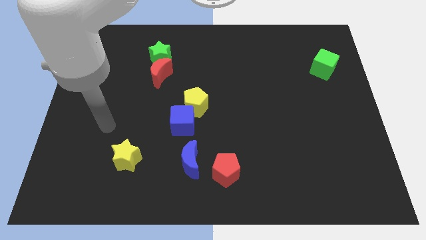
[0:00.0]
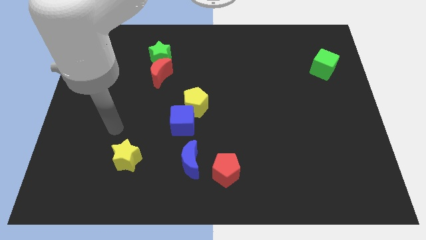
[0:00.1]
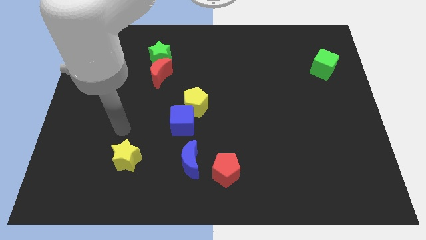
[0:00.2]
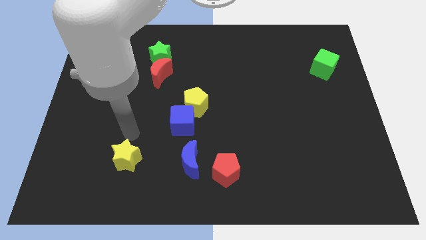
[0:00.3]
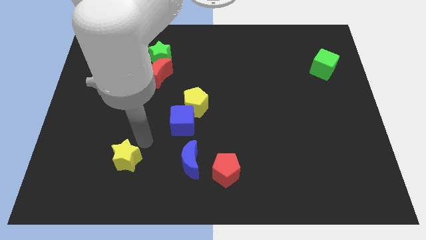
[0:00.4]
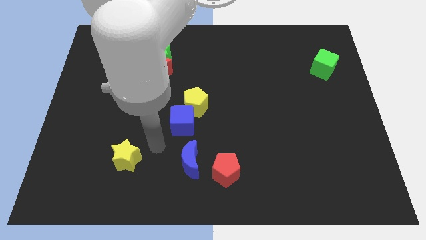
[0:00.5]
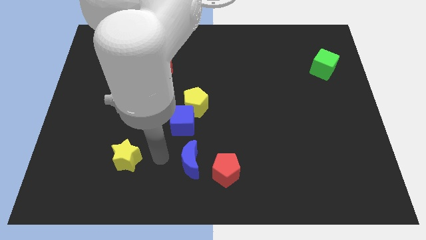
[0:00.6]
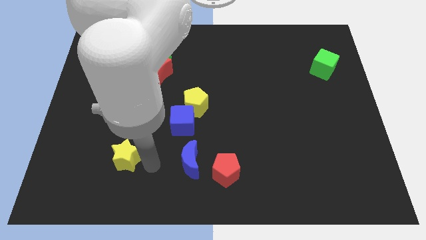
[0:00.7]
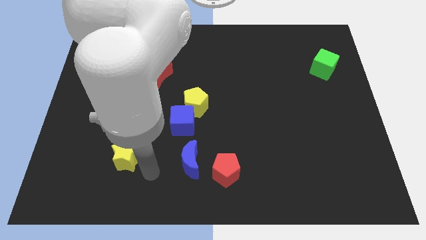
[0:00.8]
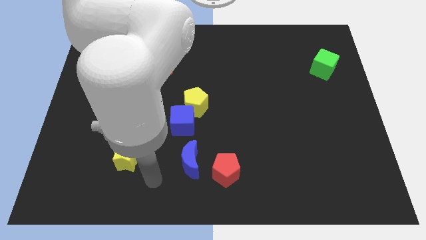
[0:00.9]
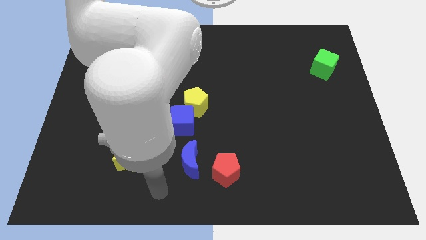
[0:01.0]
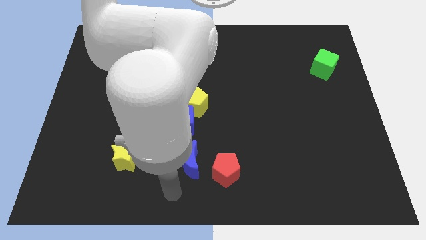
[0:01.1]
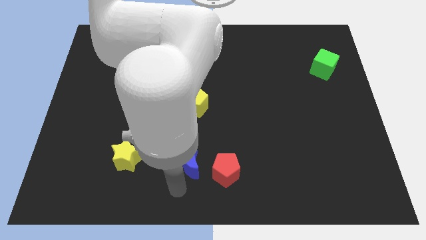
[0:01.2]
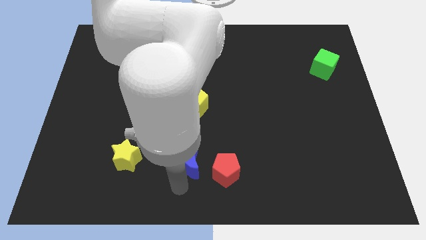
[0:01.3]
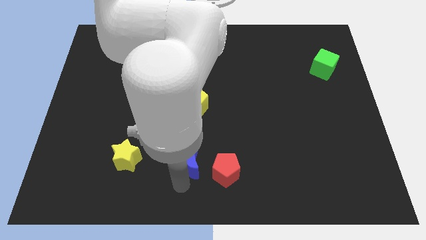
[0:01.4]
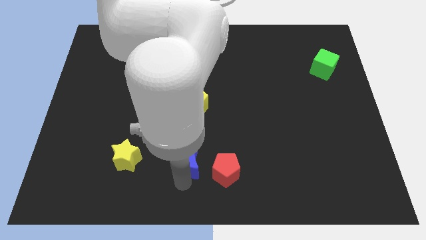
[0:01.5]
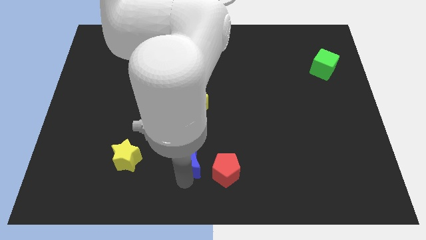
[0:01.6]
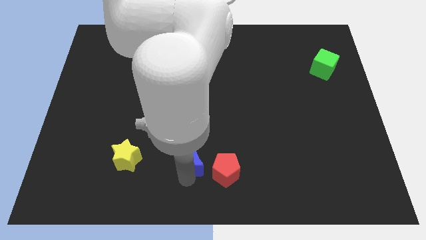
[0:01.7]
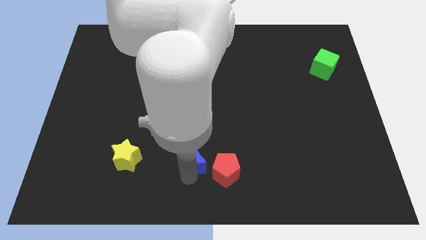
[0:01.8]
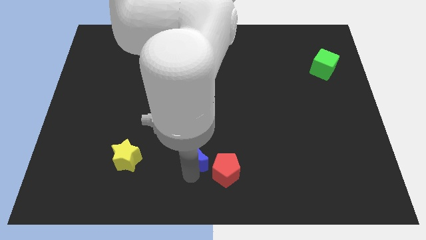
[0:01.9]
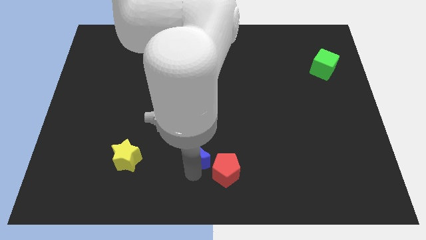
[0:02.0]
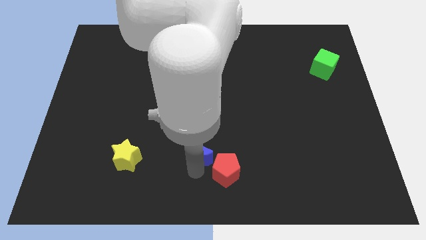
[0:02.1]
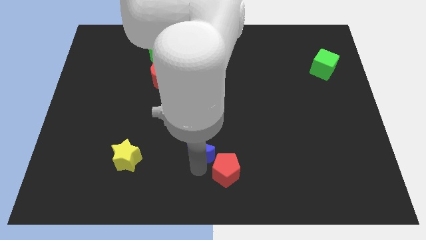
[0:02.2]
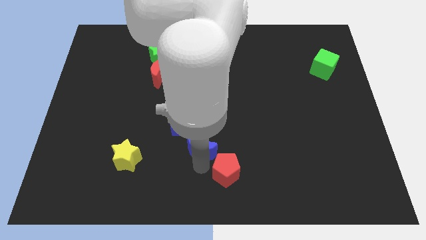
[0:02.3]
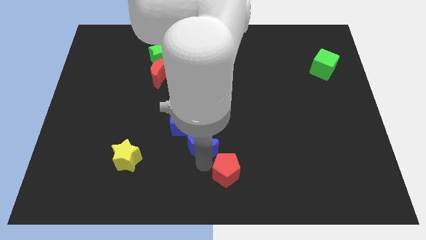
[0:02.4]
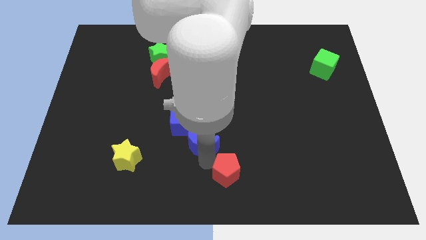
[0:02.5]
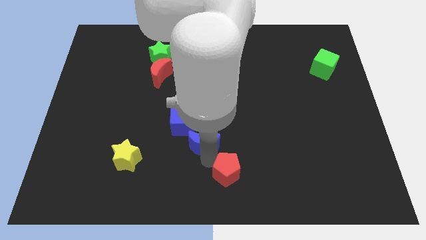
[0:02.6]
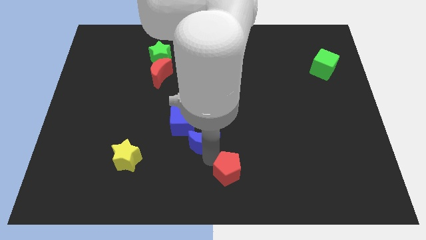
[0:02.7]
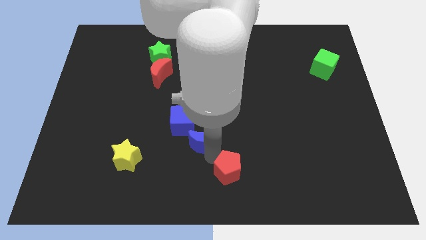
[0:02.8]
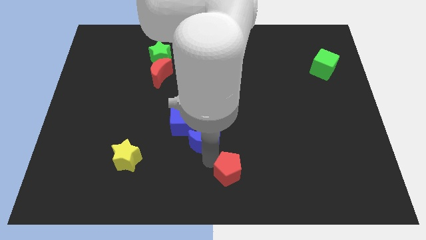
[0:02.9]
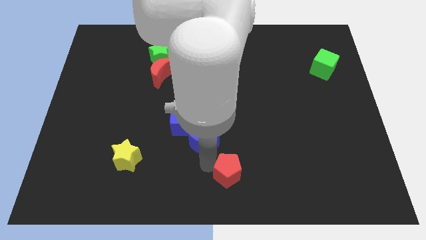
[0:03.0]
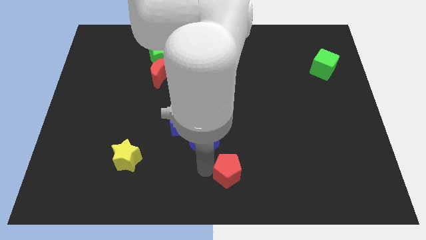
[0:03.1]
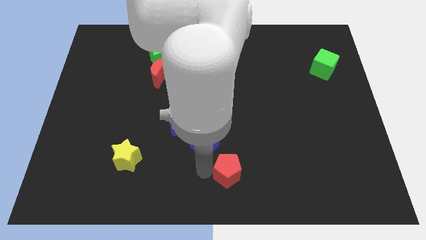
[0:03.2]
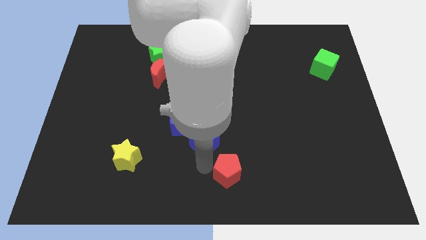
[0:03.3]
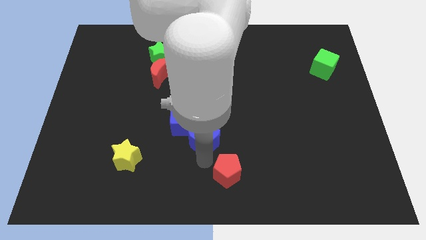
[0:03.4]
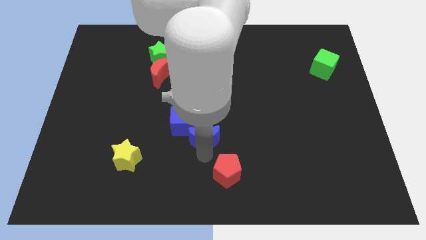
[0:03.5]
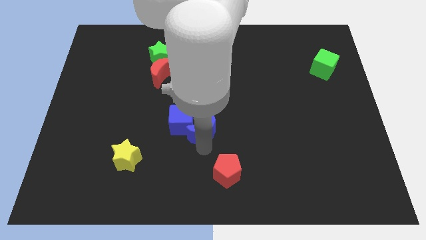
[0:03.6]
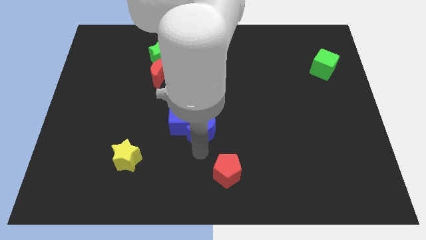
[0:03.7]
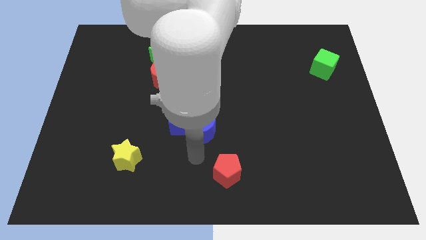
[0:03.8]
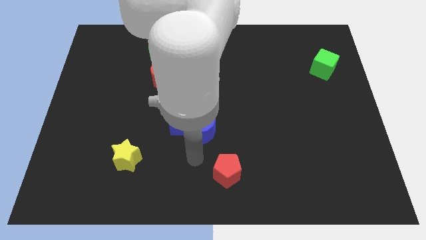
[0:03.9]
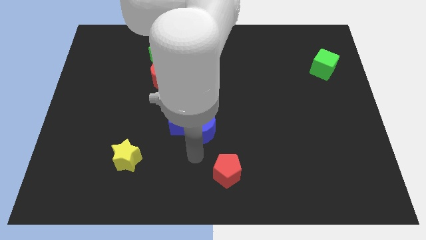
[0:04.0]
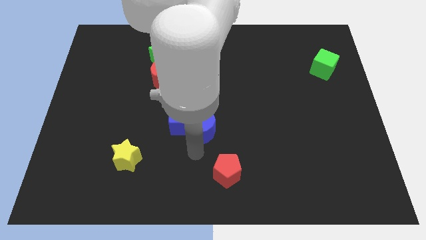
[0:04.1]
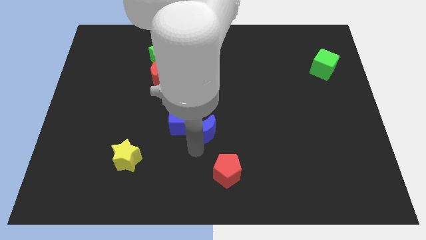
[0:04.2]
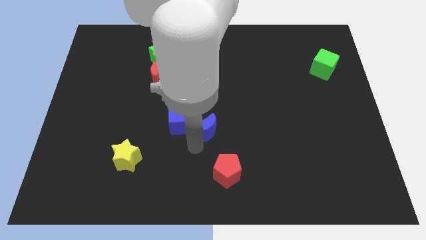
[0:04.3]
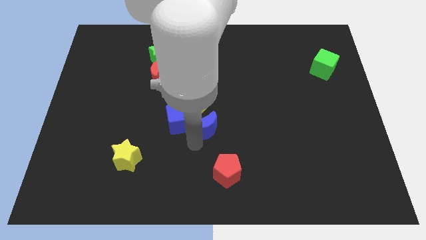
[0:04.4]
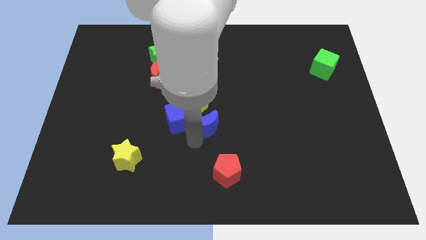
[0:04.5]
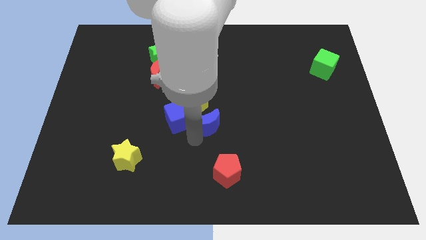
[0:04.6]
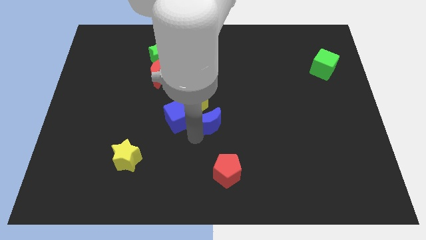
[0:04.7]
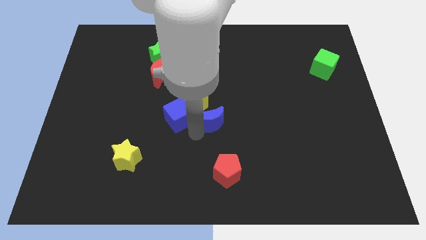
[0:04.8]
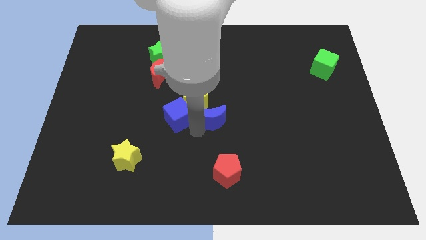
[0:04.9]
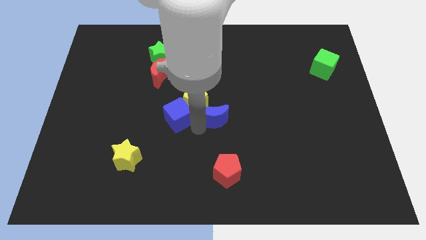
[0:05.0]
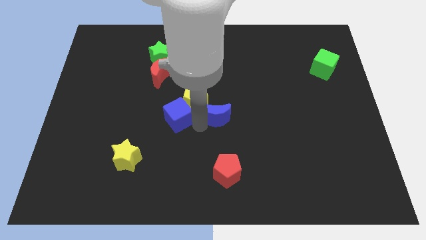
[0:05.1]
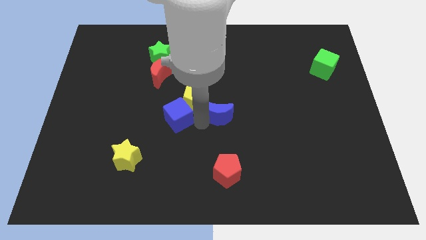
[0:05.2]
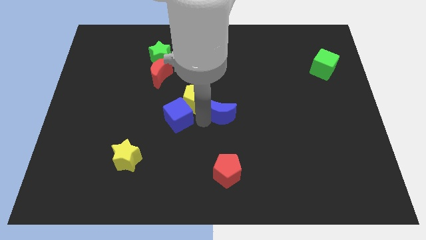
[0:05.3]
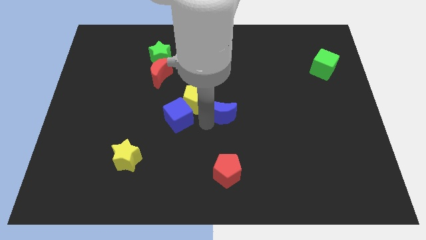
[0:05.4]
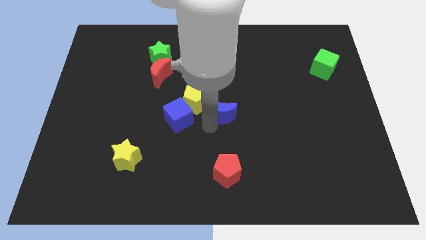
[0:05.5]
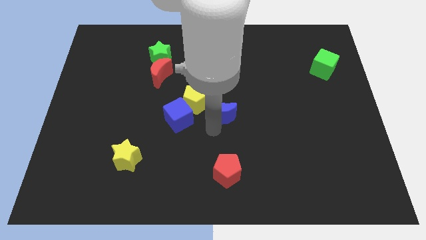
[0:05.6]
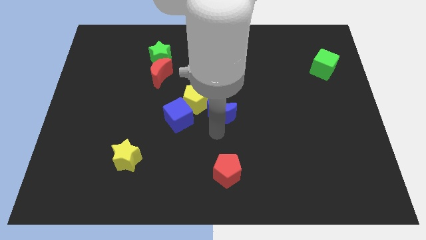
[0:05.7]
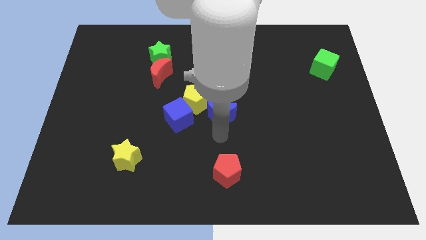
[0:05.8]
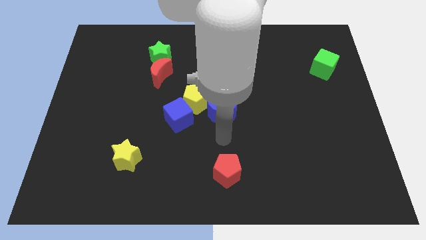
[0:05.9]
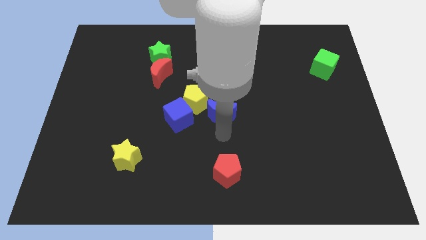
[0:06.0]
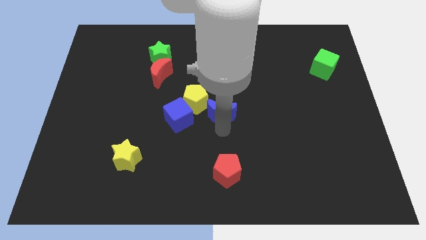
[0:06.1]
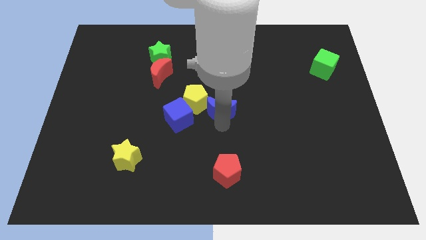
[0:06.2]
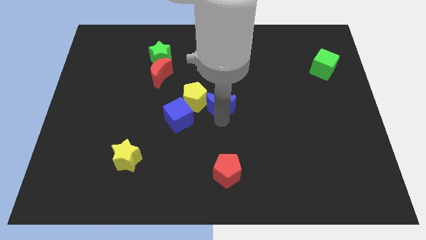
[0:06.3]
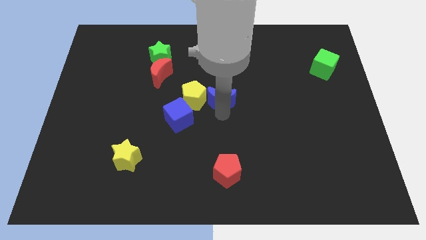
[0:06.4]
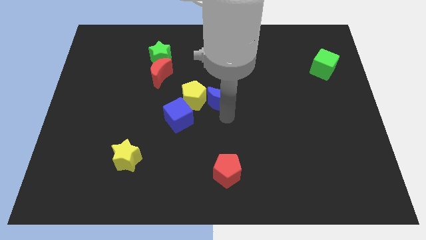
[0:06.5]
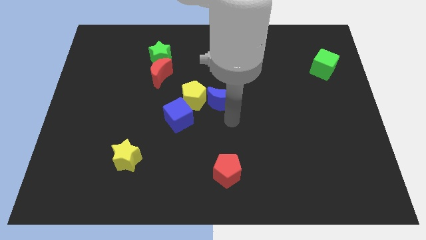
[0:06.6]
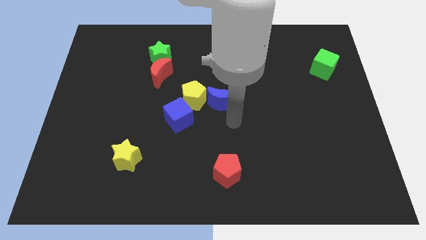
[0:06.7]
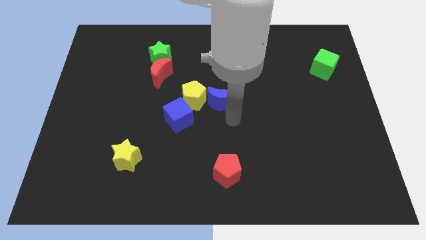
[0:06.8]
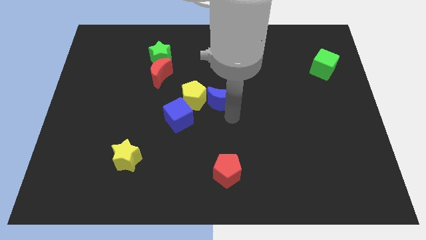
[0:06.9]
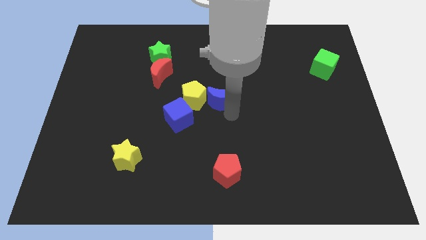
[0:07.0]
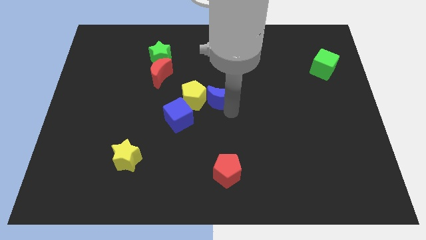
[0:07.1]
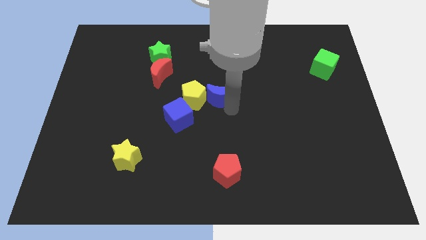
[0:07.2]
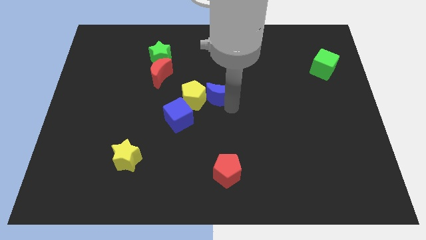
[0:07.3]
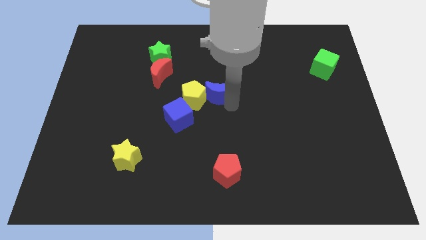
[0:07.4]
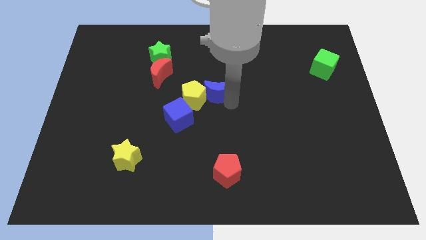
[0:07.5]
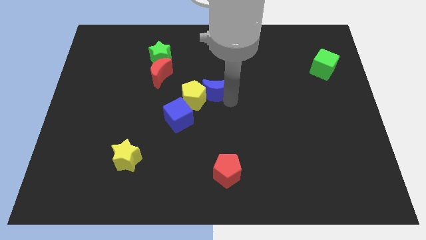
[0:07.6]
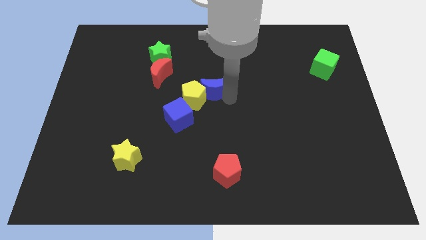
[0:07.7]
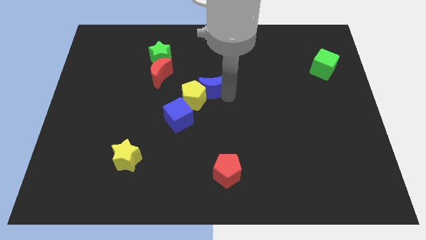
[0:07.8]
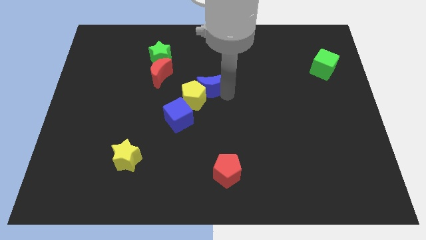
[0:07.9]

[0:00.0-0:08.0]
push the blue moon up
